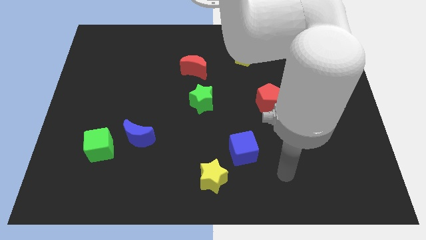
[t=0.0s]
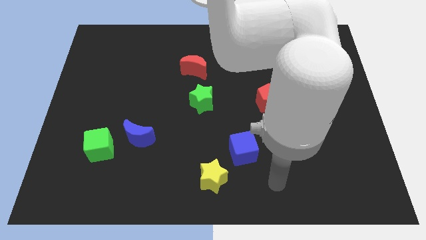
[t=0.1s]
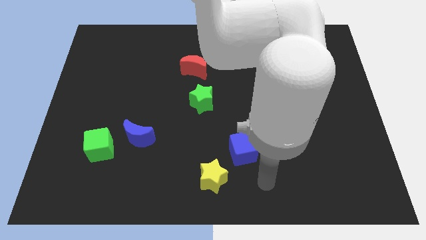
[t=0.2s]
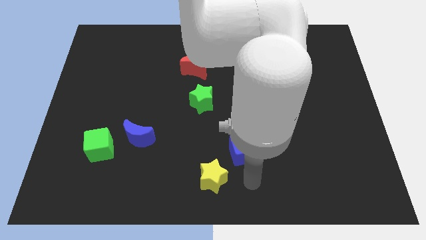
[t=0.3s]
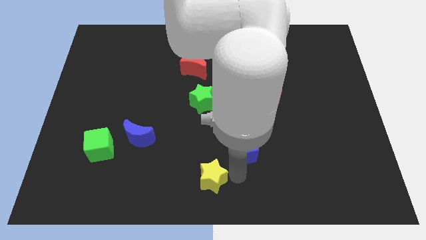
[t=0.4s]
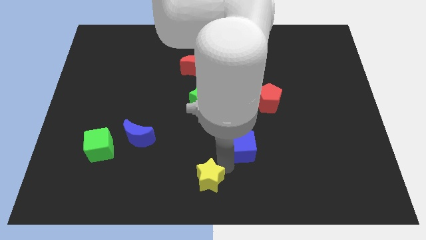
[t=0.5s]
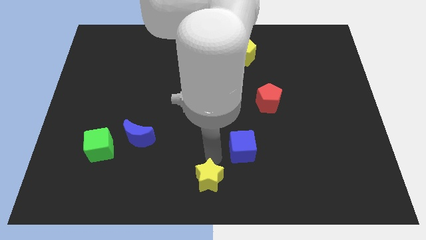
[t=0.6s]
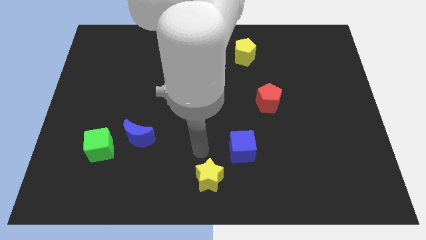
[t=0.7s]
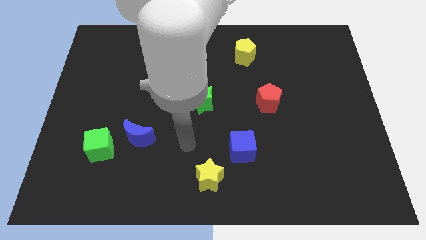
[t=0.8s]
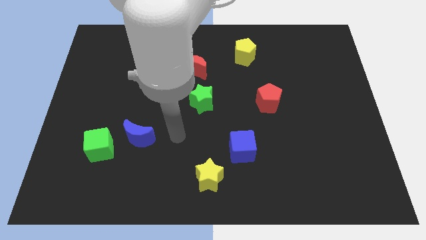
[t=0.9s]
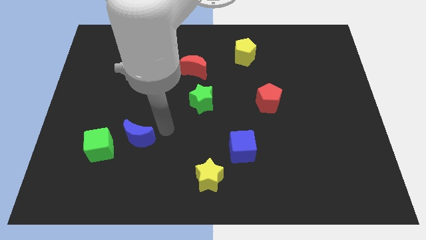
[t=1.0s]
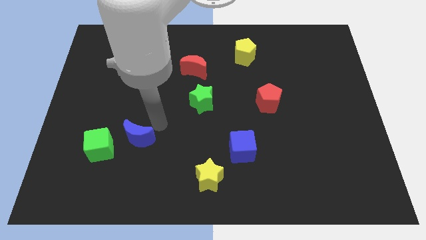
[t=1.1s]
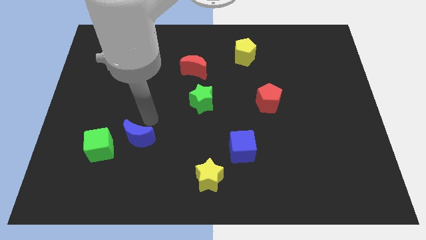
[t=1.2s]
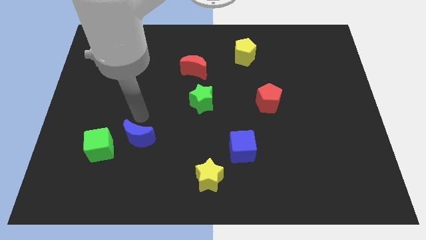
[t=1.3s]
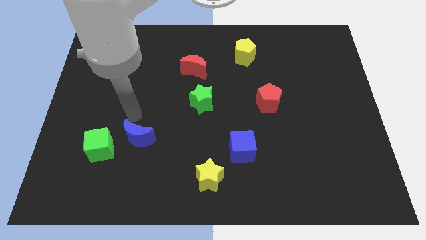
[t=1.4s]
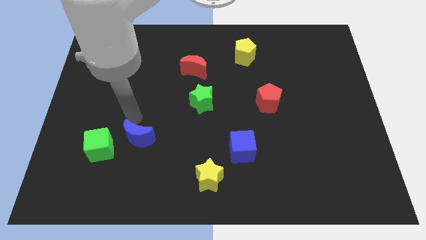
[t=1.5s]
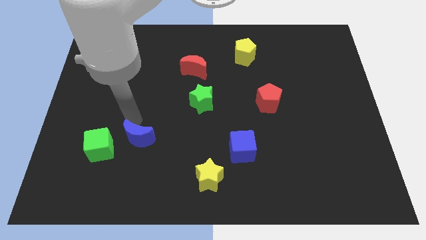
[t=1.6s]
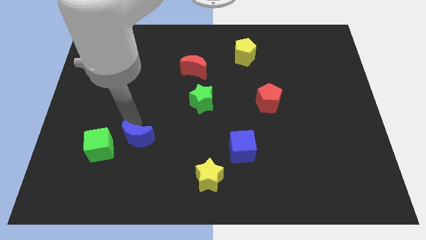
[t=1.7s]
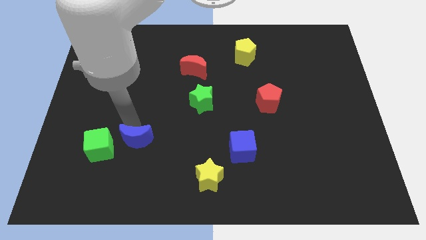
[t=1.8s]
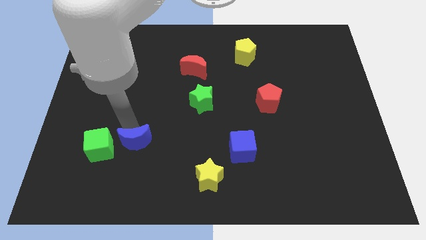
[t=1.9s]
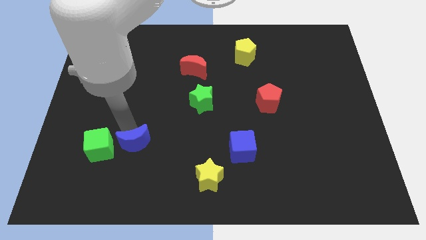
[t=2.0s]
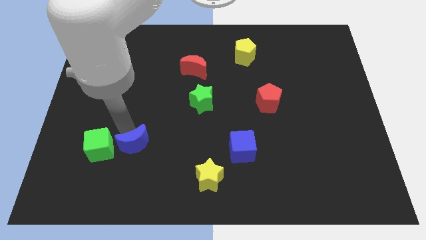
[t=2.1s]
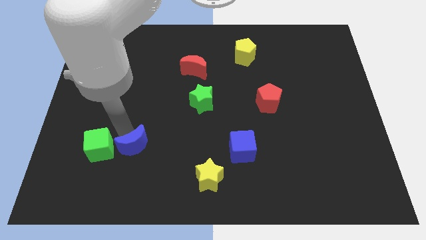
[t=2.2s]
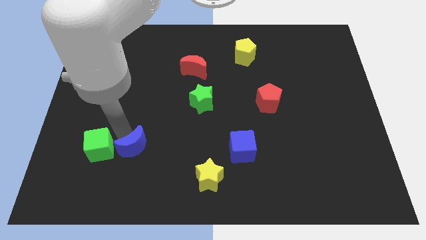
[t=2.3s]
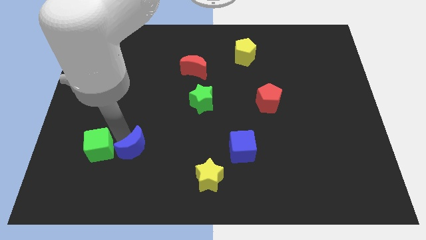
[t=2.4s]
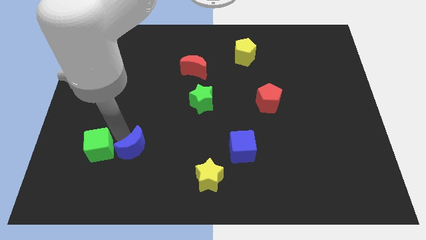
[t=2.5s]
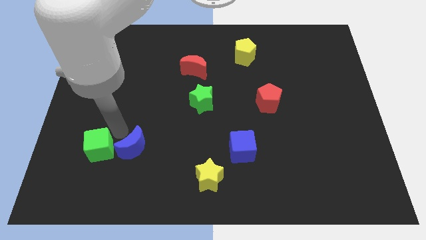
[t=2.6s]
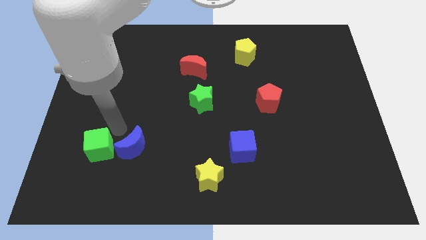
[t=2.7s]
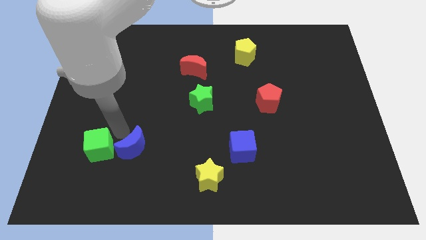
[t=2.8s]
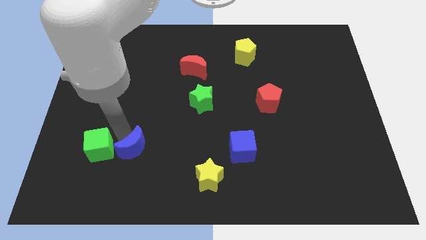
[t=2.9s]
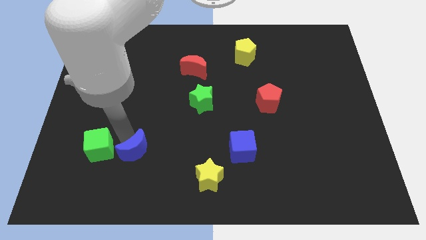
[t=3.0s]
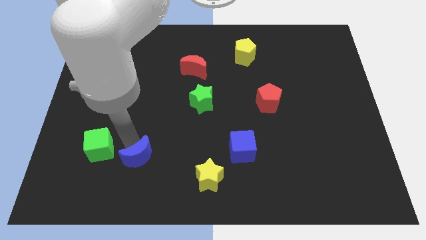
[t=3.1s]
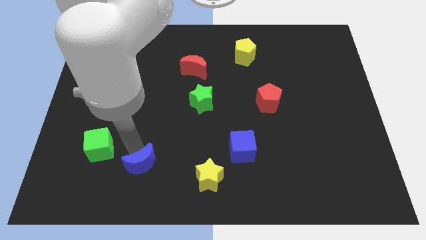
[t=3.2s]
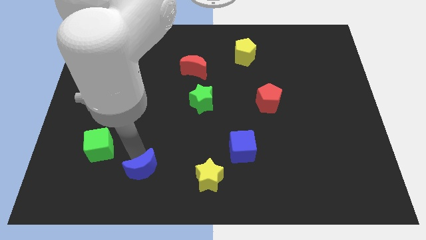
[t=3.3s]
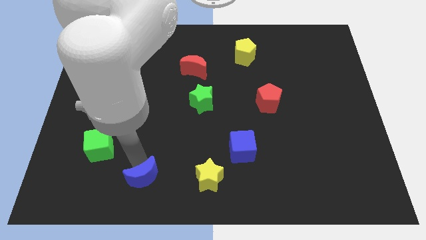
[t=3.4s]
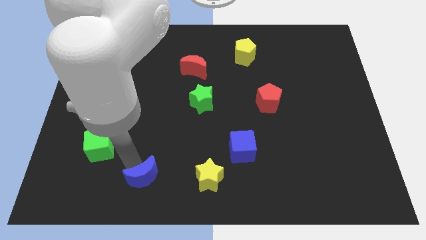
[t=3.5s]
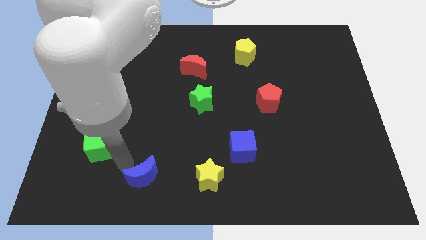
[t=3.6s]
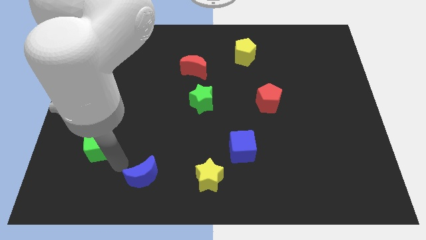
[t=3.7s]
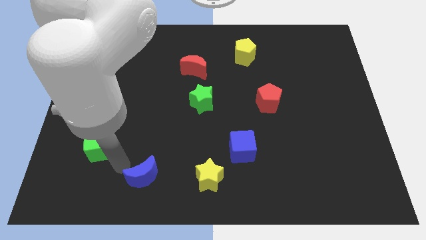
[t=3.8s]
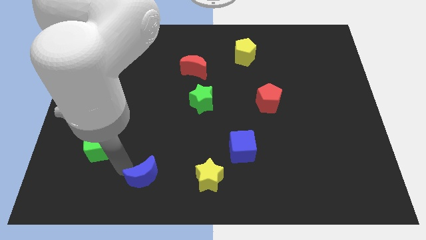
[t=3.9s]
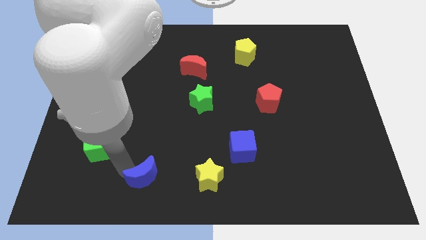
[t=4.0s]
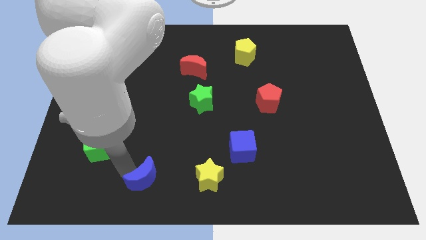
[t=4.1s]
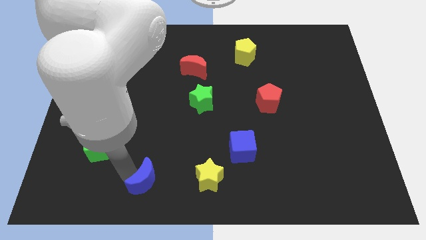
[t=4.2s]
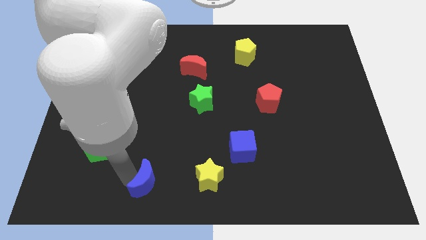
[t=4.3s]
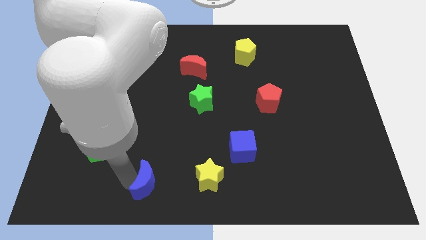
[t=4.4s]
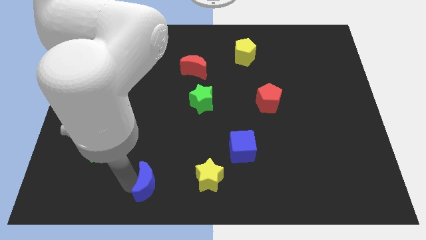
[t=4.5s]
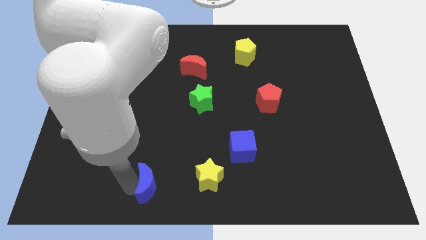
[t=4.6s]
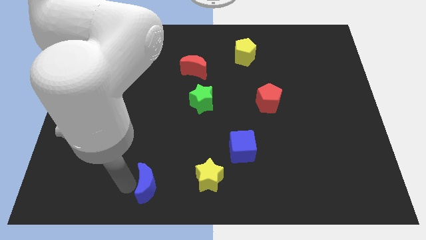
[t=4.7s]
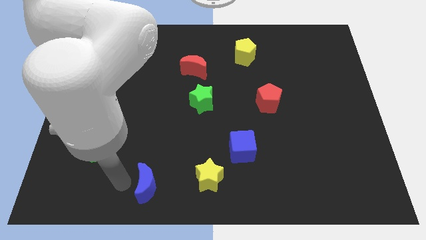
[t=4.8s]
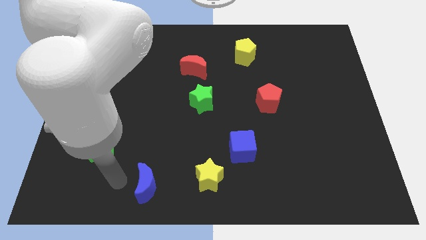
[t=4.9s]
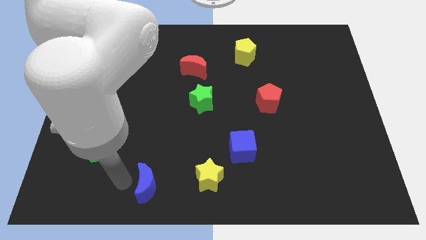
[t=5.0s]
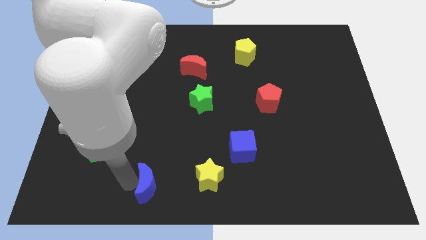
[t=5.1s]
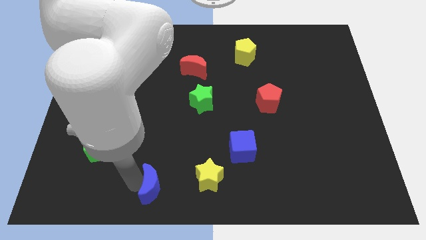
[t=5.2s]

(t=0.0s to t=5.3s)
put the blue moon to the bottom side
